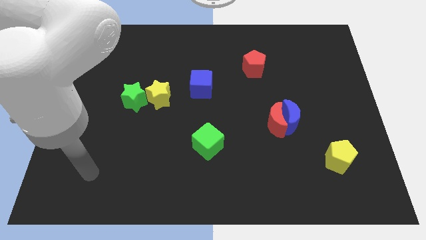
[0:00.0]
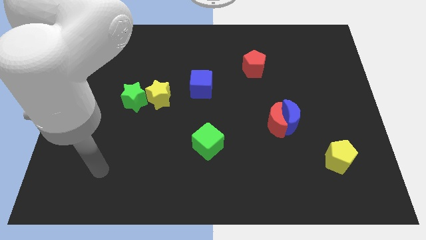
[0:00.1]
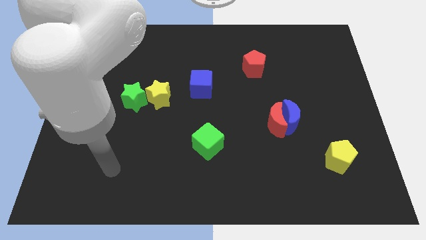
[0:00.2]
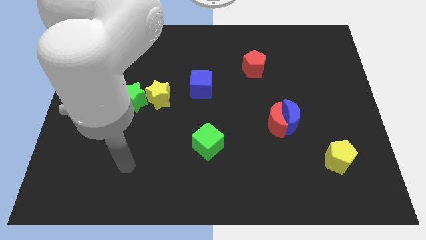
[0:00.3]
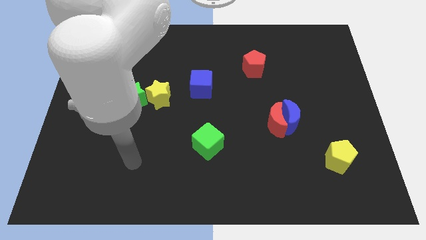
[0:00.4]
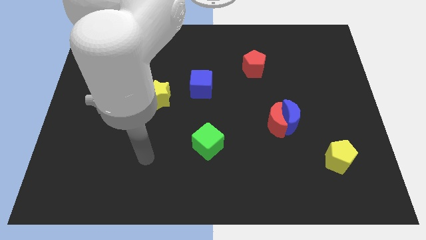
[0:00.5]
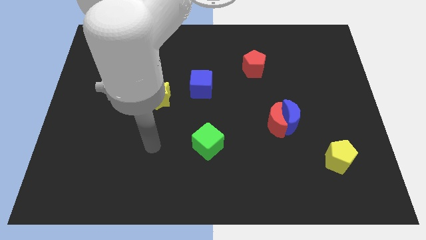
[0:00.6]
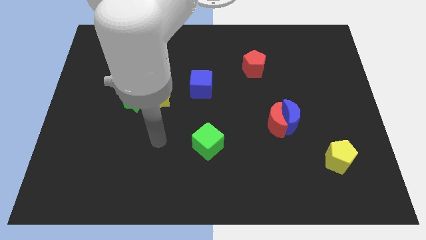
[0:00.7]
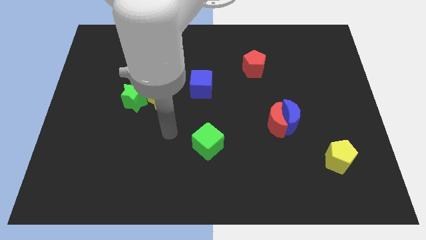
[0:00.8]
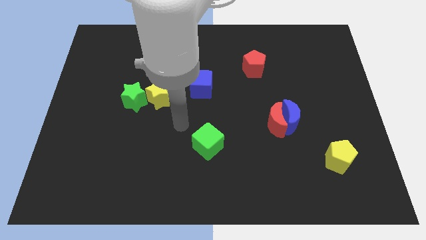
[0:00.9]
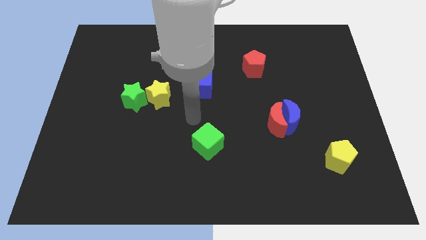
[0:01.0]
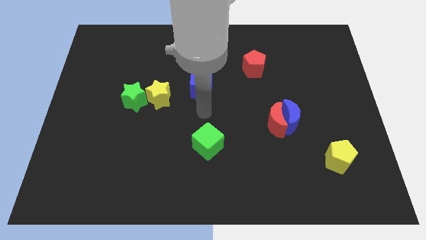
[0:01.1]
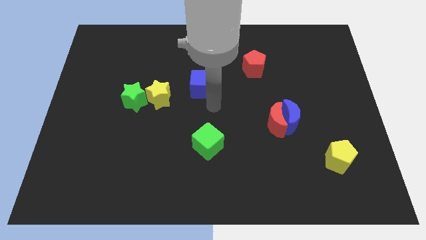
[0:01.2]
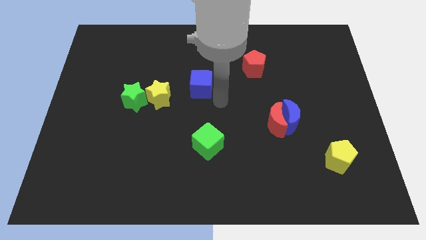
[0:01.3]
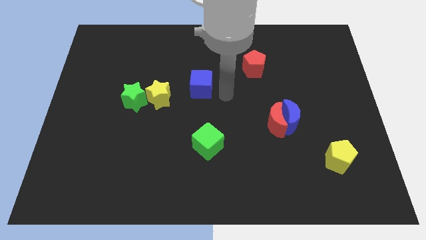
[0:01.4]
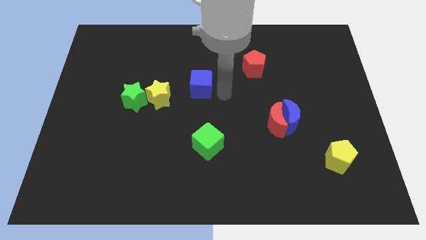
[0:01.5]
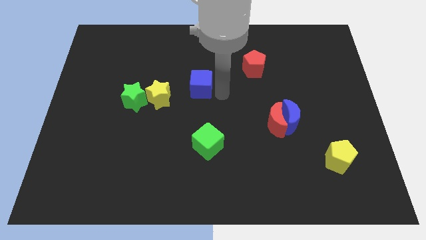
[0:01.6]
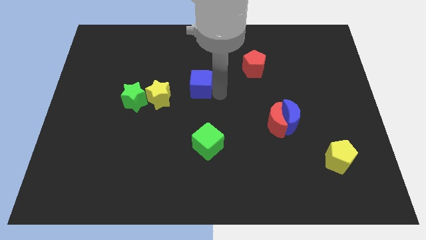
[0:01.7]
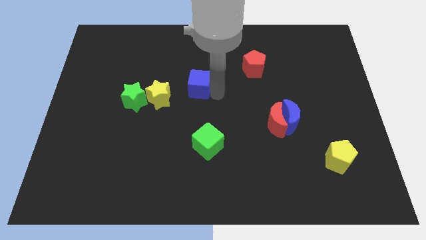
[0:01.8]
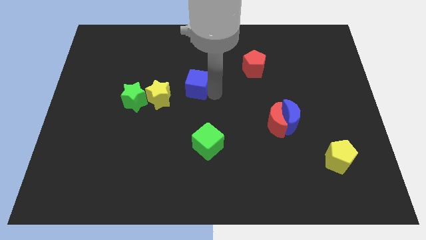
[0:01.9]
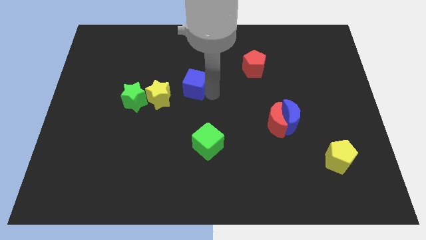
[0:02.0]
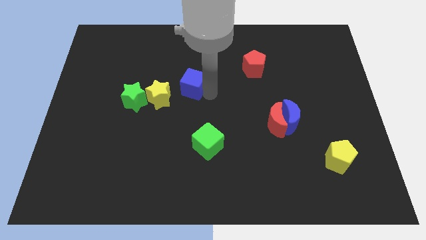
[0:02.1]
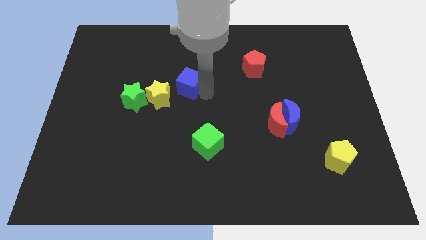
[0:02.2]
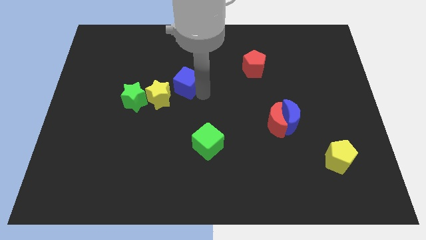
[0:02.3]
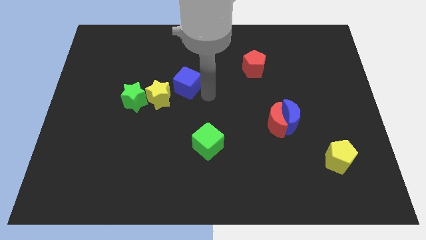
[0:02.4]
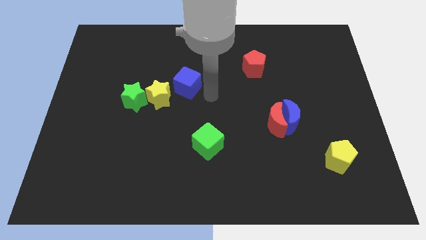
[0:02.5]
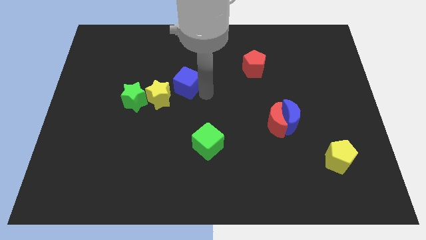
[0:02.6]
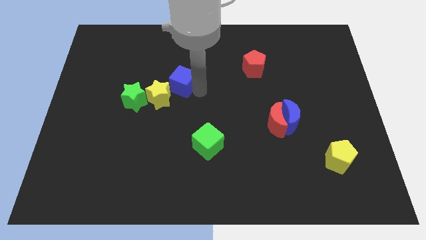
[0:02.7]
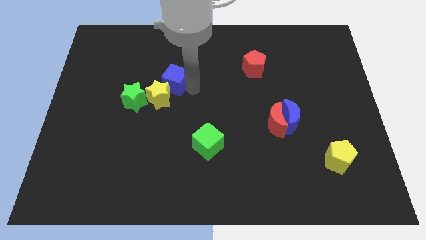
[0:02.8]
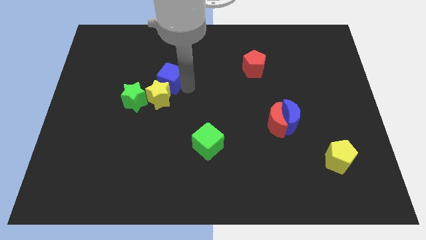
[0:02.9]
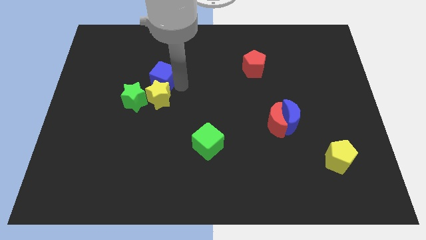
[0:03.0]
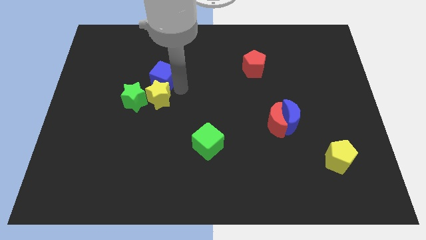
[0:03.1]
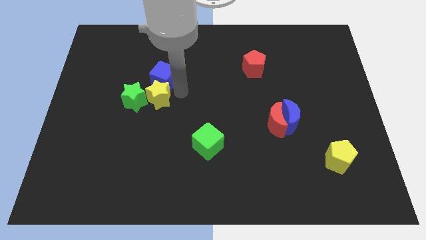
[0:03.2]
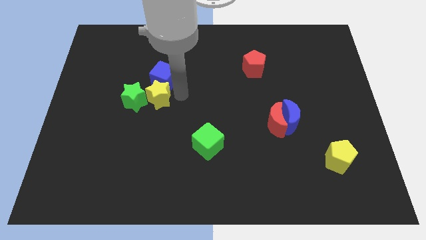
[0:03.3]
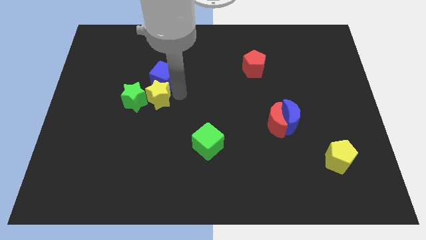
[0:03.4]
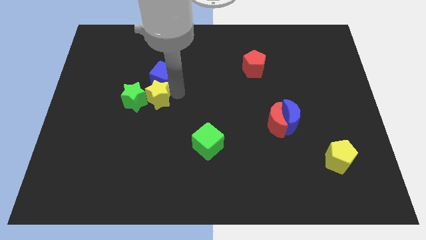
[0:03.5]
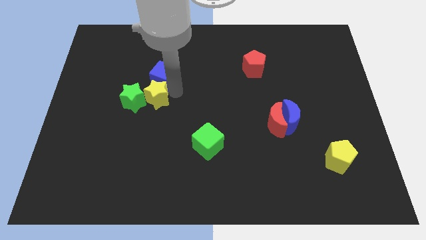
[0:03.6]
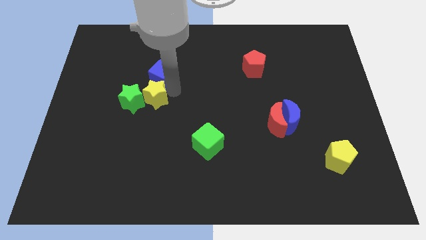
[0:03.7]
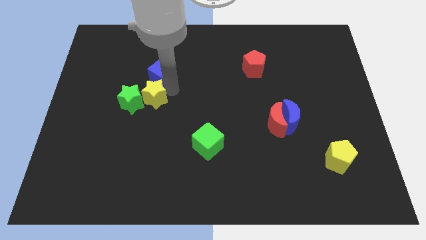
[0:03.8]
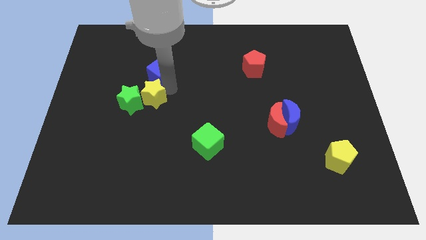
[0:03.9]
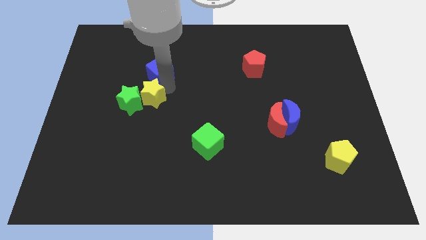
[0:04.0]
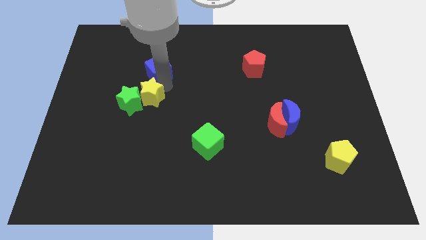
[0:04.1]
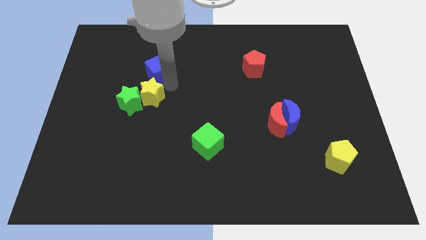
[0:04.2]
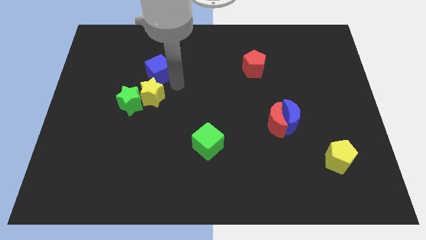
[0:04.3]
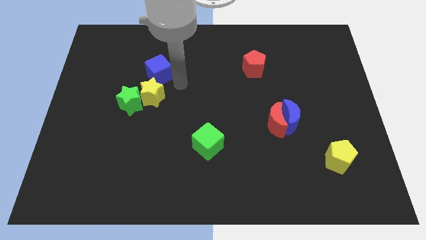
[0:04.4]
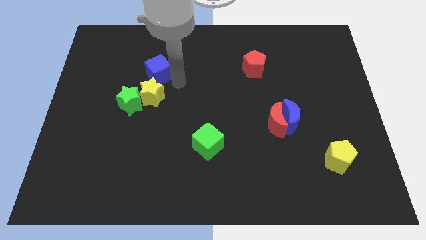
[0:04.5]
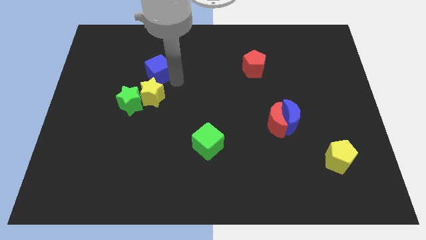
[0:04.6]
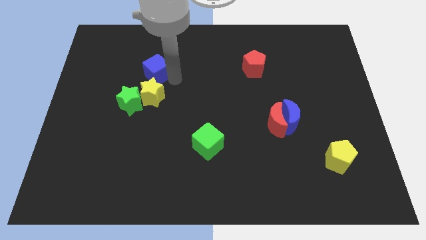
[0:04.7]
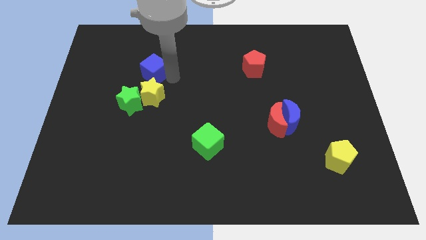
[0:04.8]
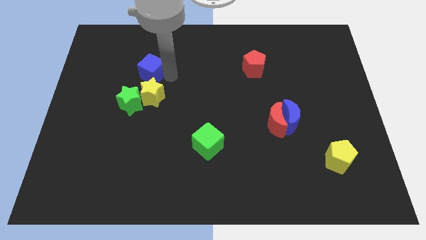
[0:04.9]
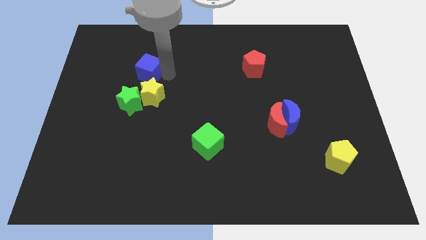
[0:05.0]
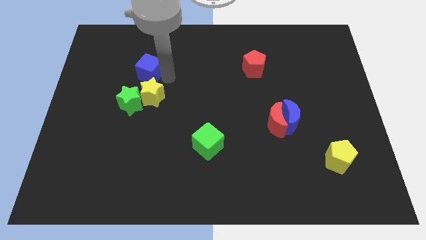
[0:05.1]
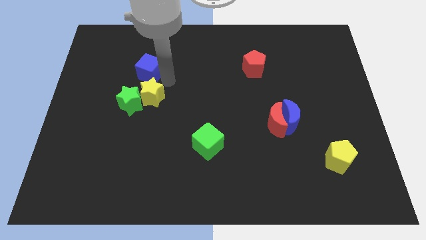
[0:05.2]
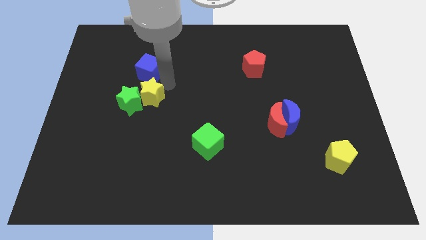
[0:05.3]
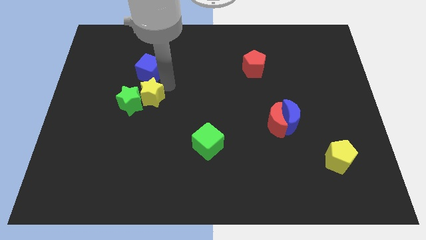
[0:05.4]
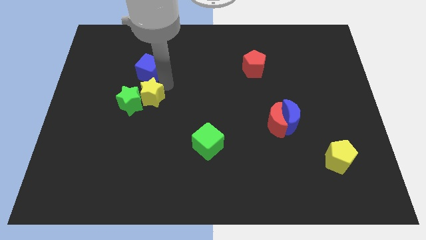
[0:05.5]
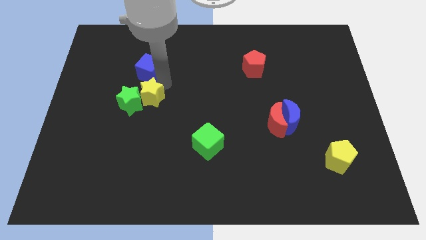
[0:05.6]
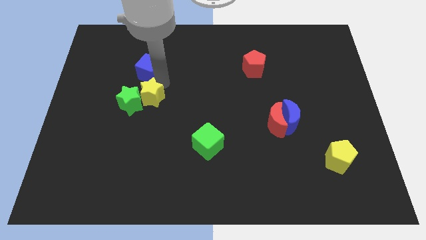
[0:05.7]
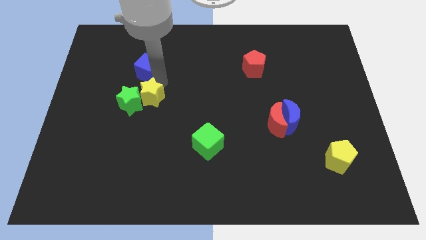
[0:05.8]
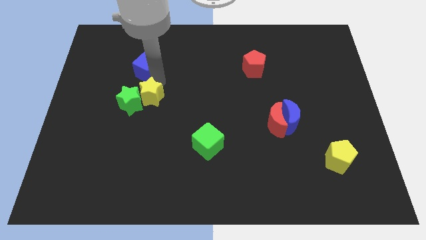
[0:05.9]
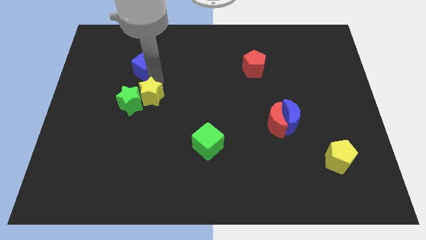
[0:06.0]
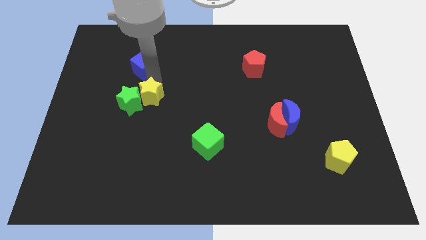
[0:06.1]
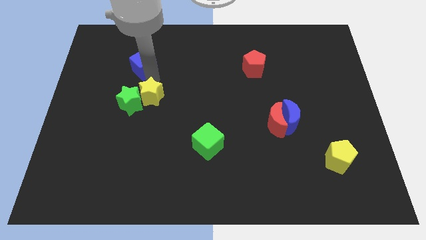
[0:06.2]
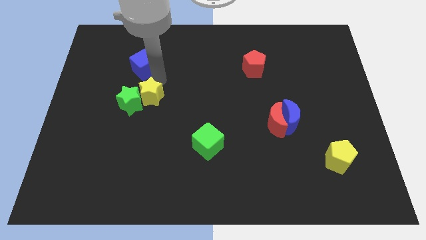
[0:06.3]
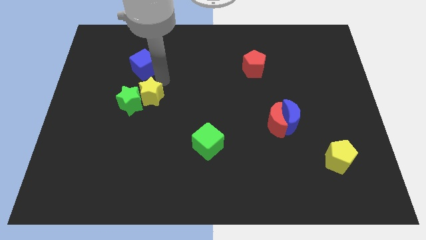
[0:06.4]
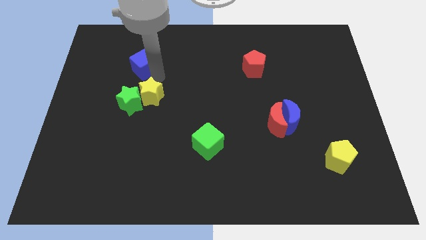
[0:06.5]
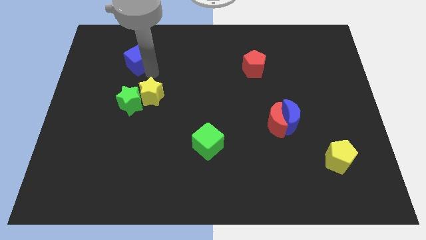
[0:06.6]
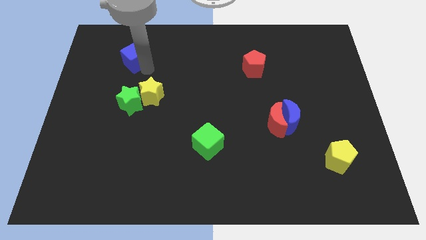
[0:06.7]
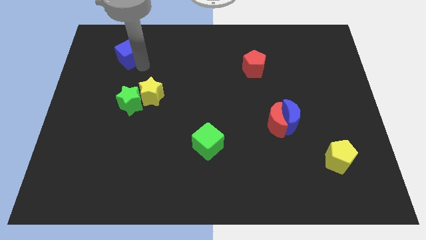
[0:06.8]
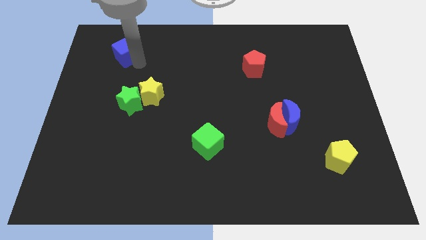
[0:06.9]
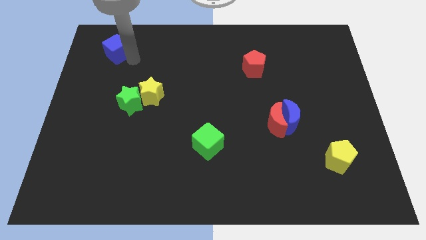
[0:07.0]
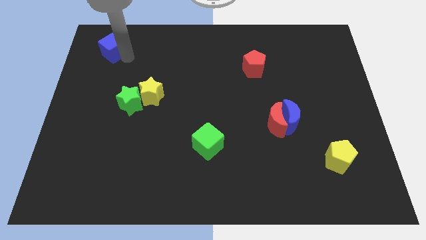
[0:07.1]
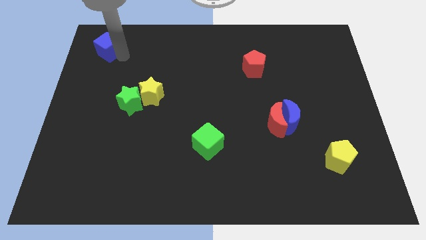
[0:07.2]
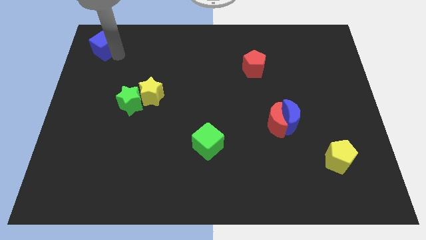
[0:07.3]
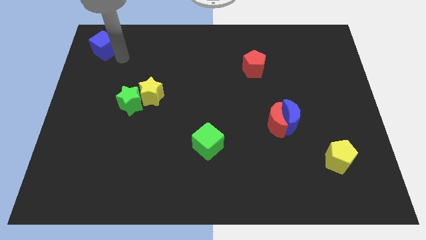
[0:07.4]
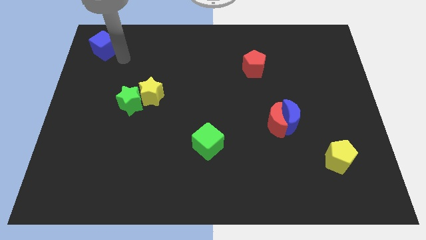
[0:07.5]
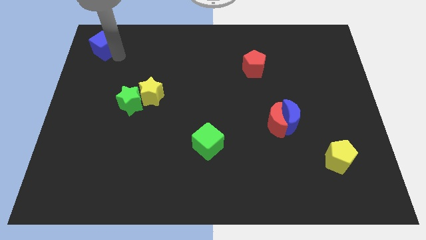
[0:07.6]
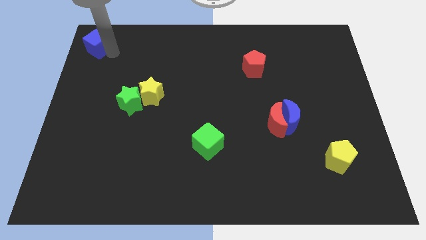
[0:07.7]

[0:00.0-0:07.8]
push the blue cube to the top left of the board

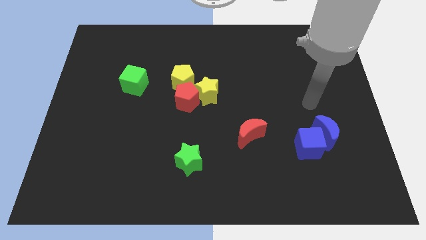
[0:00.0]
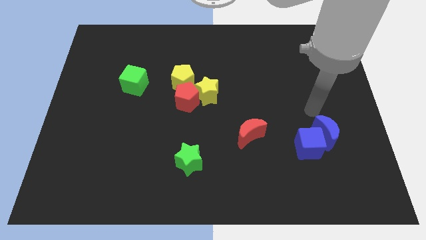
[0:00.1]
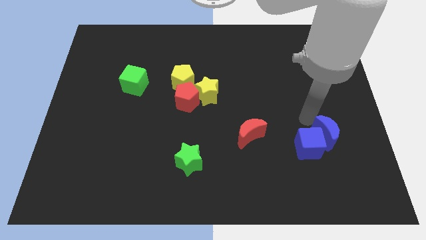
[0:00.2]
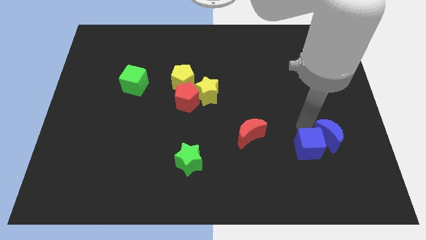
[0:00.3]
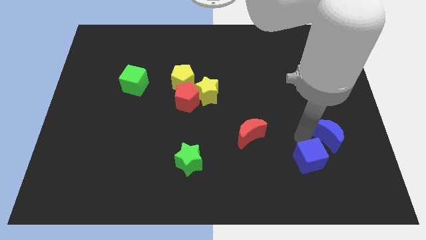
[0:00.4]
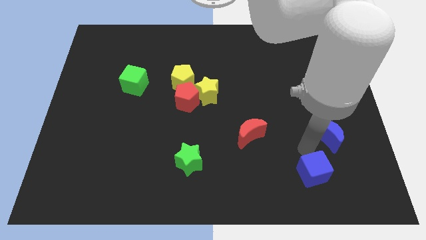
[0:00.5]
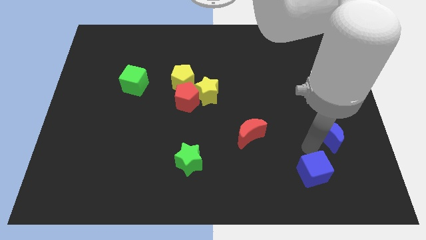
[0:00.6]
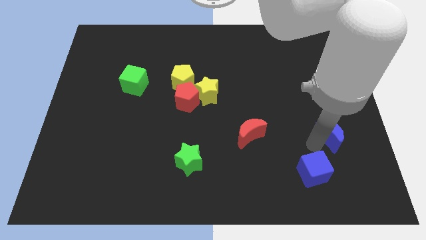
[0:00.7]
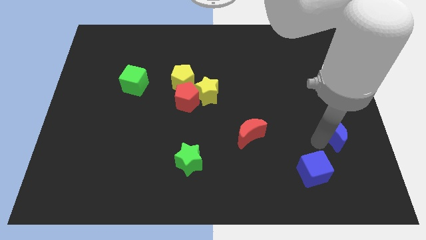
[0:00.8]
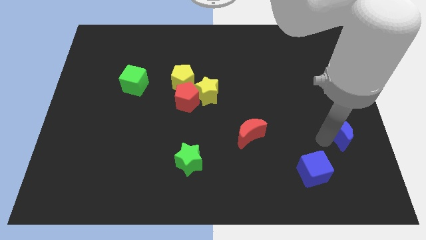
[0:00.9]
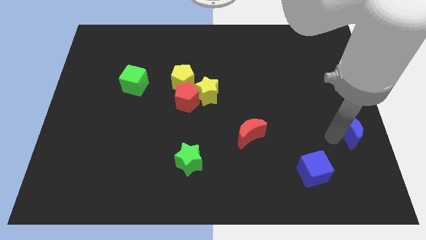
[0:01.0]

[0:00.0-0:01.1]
put the blue moon to the center right
